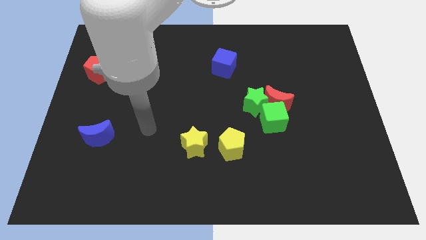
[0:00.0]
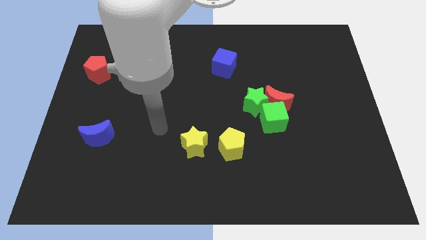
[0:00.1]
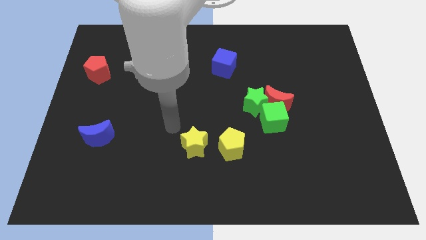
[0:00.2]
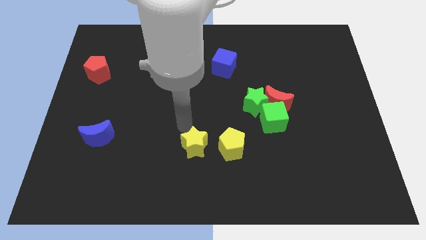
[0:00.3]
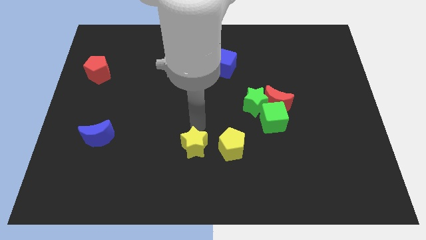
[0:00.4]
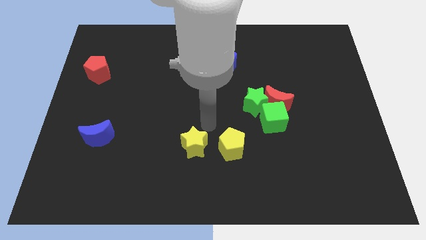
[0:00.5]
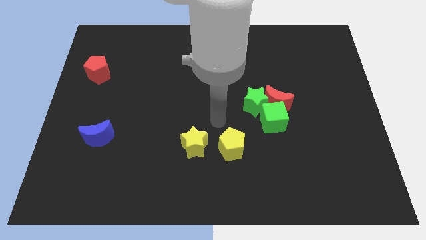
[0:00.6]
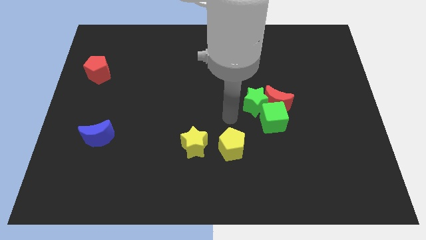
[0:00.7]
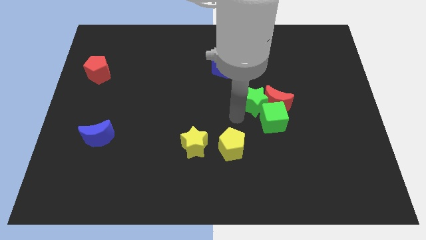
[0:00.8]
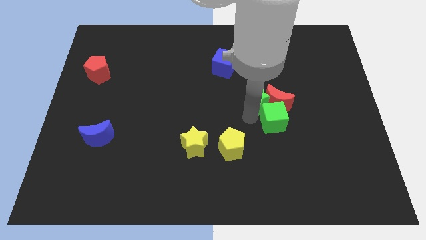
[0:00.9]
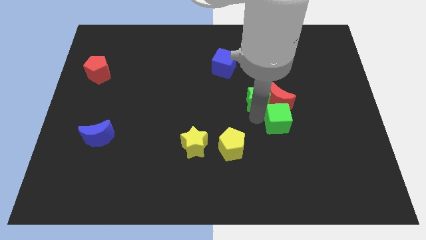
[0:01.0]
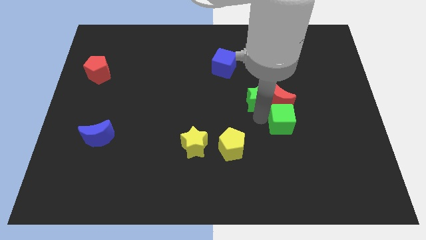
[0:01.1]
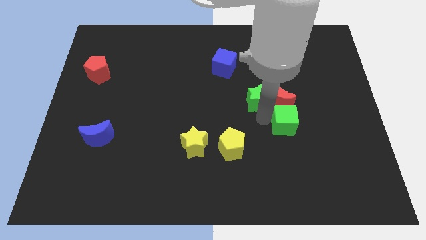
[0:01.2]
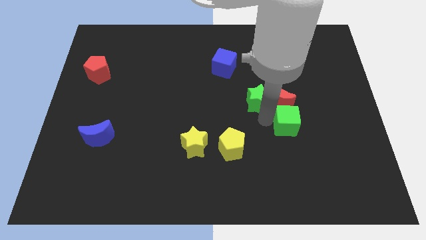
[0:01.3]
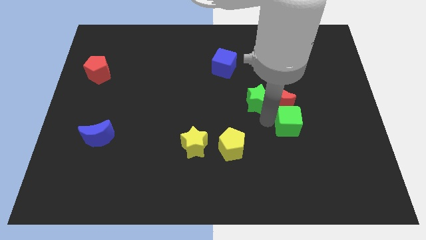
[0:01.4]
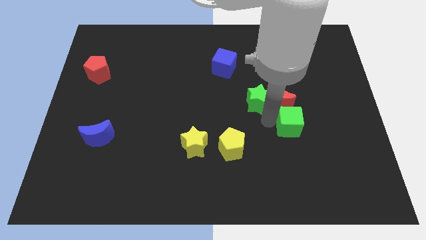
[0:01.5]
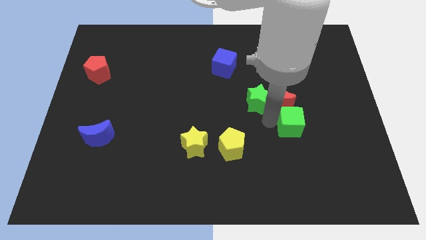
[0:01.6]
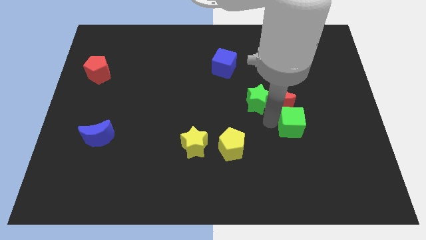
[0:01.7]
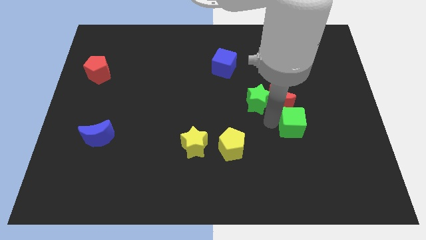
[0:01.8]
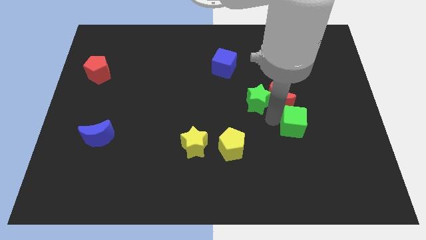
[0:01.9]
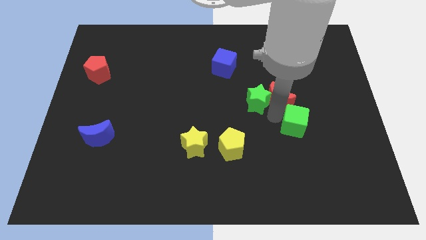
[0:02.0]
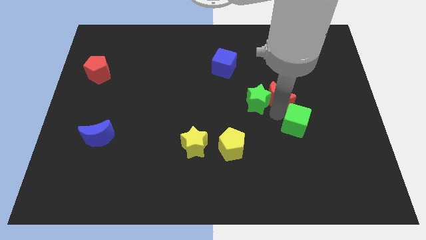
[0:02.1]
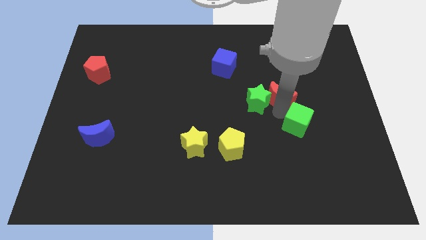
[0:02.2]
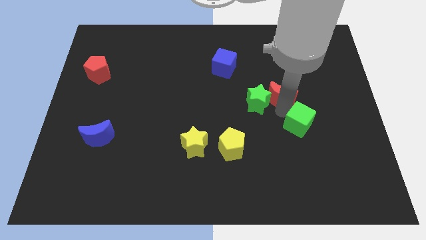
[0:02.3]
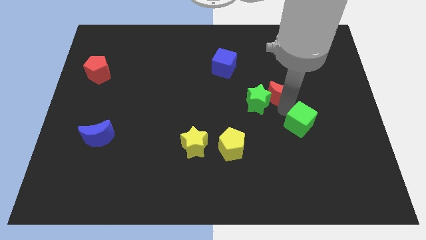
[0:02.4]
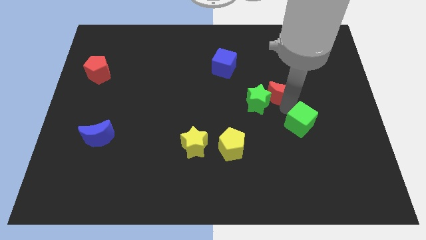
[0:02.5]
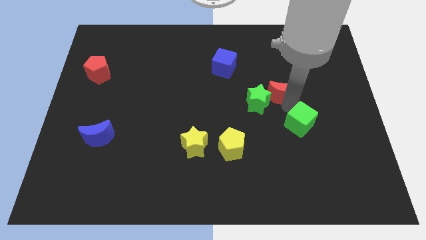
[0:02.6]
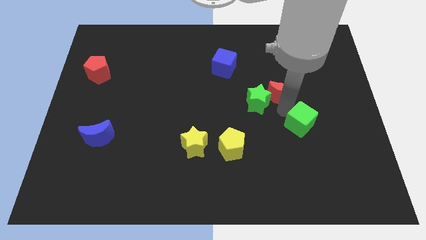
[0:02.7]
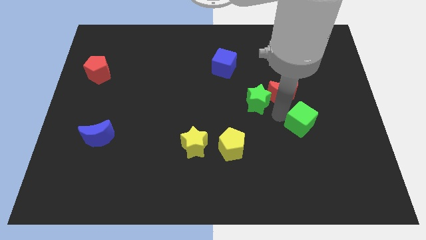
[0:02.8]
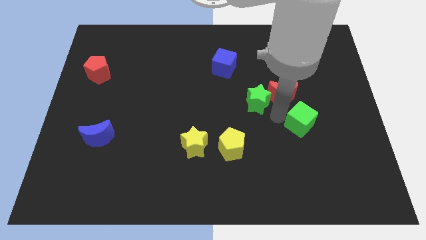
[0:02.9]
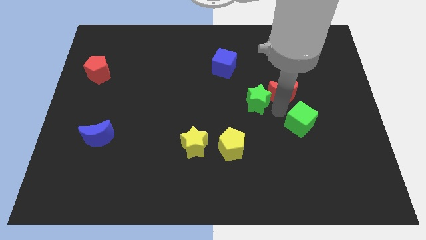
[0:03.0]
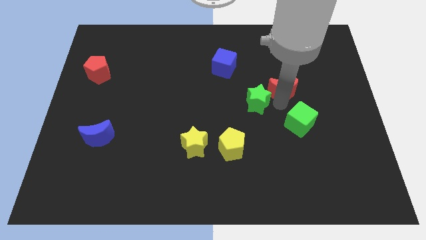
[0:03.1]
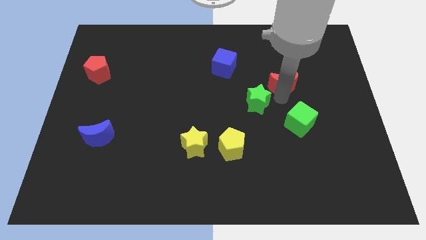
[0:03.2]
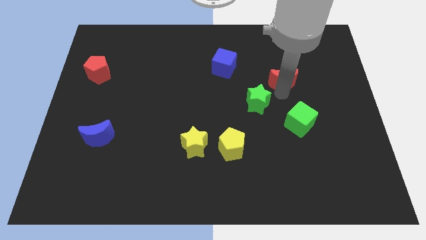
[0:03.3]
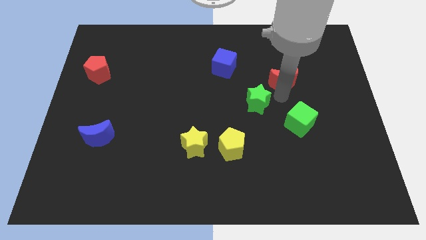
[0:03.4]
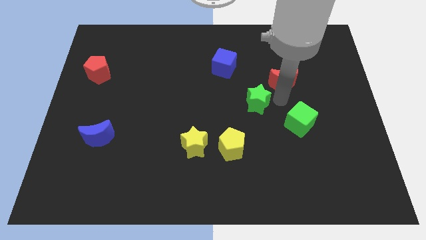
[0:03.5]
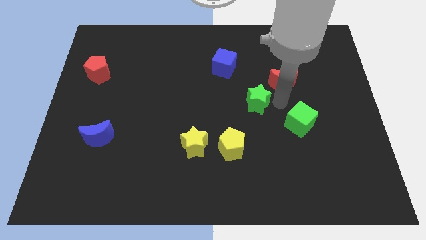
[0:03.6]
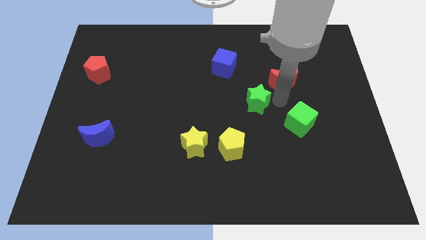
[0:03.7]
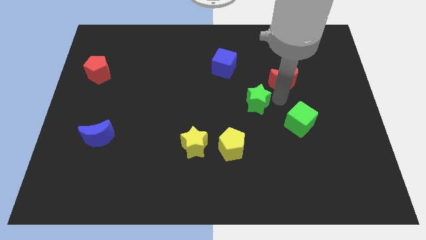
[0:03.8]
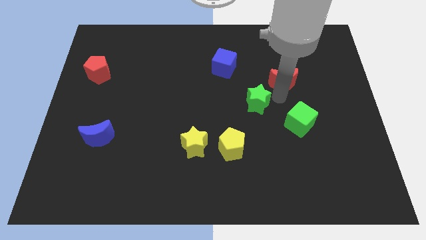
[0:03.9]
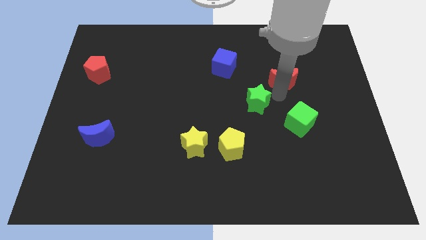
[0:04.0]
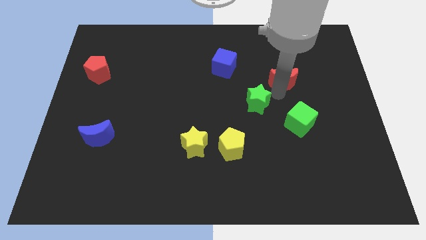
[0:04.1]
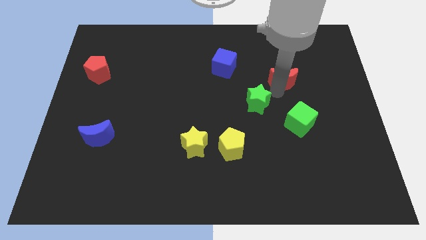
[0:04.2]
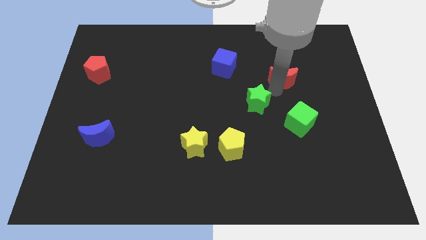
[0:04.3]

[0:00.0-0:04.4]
move the red moon away from the green star and green cube

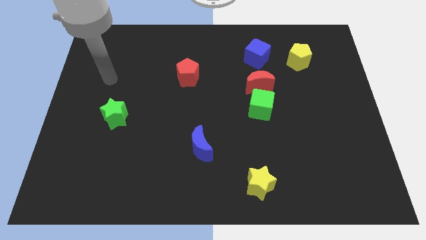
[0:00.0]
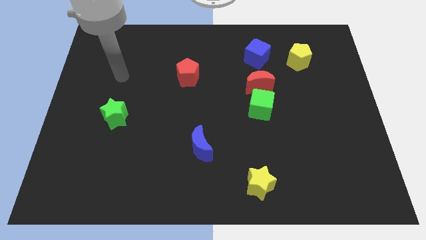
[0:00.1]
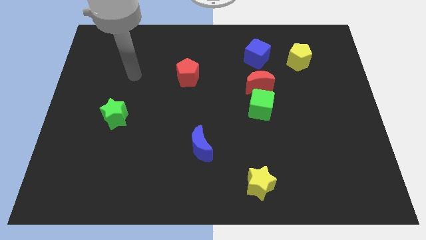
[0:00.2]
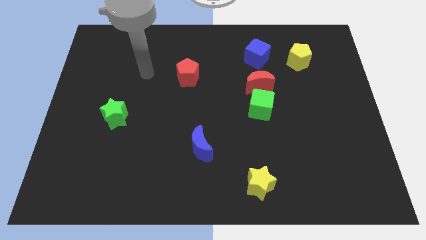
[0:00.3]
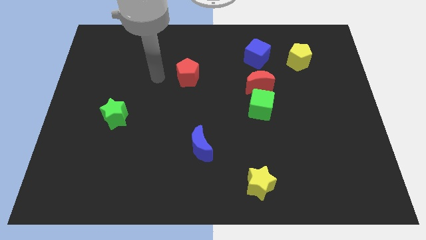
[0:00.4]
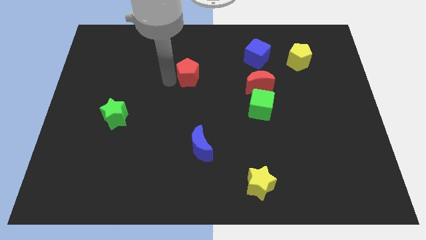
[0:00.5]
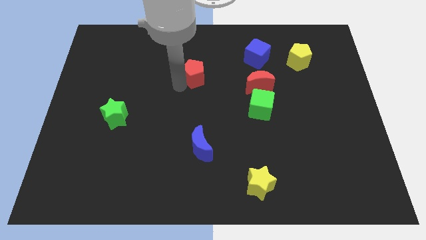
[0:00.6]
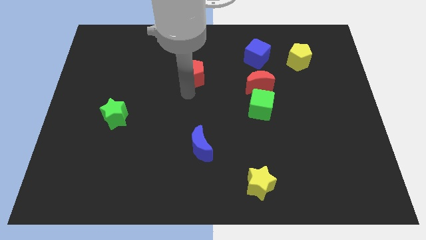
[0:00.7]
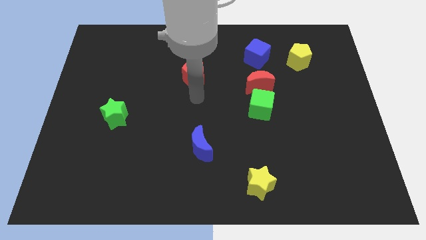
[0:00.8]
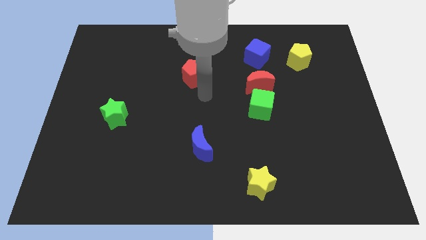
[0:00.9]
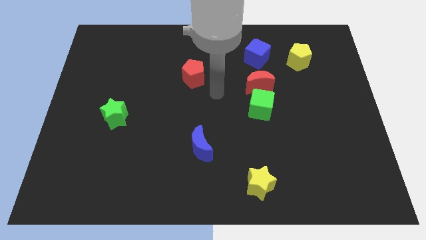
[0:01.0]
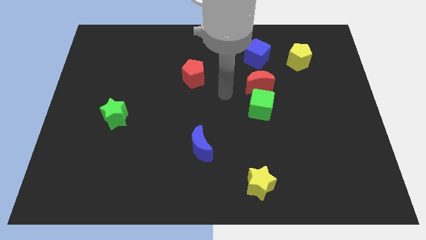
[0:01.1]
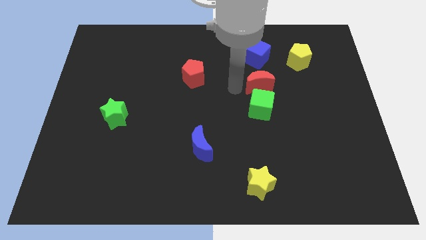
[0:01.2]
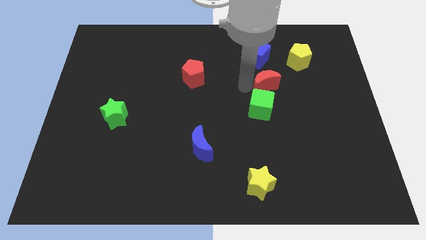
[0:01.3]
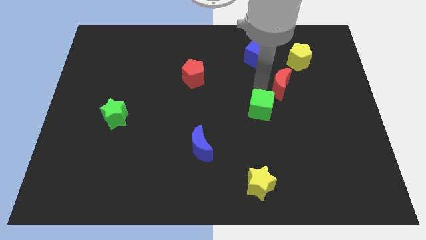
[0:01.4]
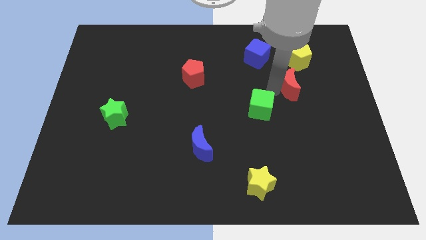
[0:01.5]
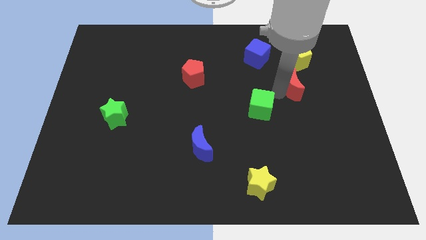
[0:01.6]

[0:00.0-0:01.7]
separate the green cube from the red moon

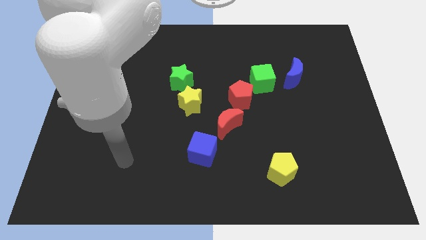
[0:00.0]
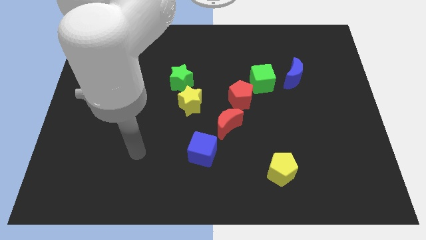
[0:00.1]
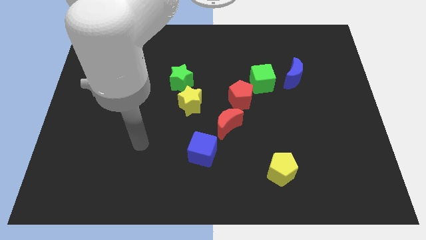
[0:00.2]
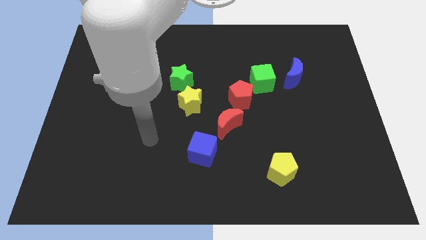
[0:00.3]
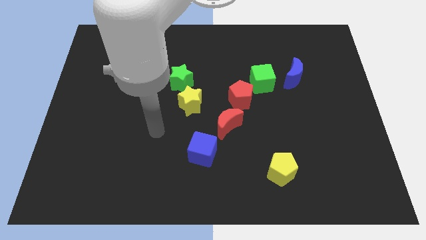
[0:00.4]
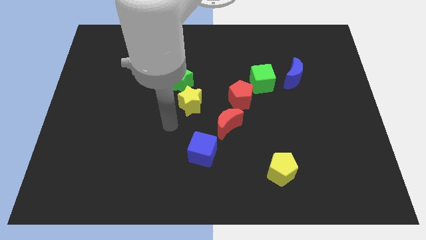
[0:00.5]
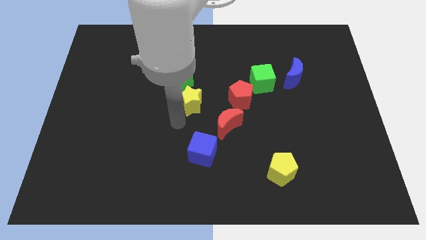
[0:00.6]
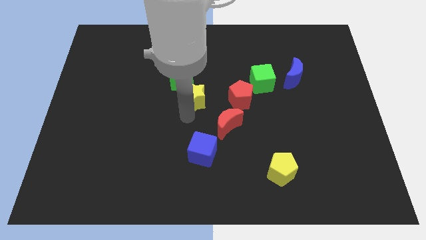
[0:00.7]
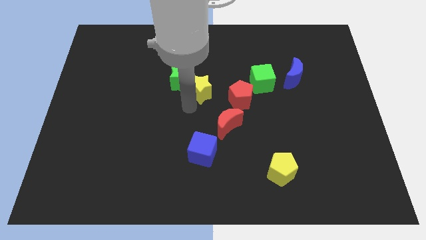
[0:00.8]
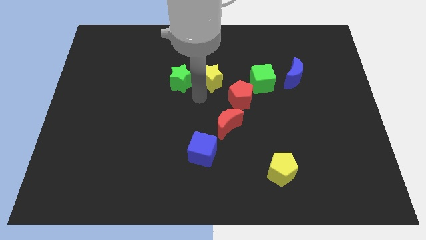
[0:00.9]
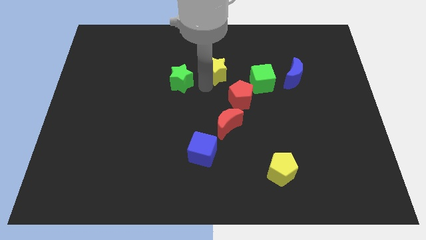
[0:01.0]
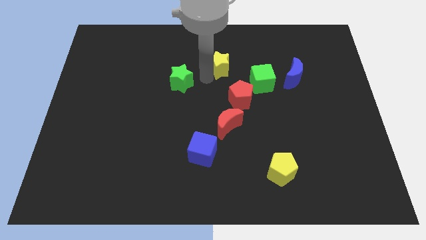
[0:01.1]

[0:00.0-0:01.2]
move the green star away from the yellow star

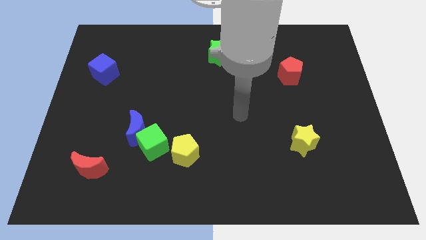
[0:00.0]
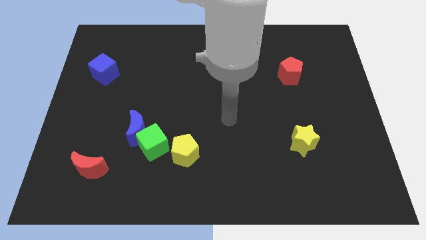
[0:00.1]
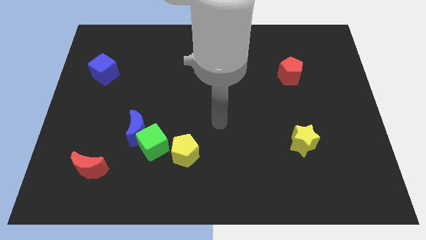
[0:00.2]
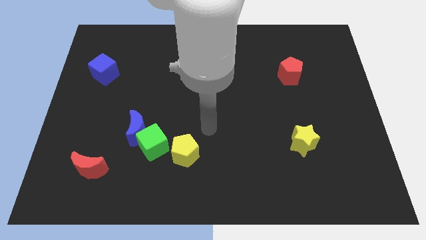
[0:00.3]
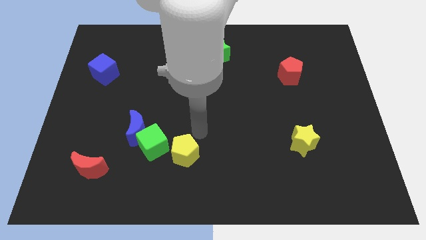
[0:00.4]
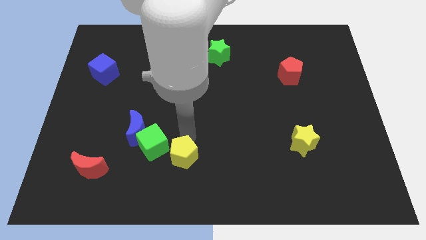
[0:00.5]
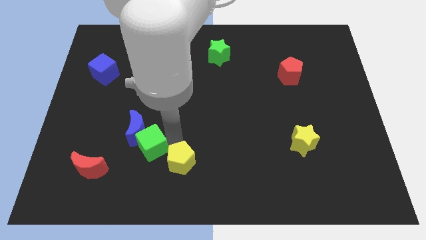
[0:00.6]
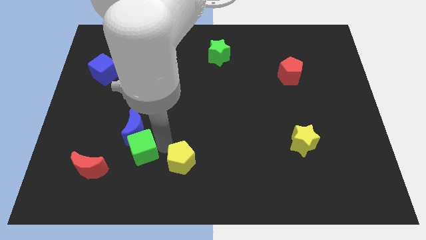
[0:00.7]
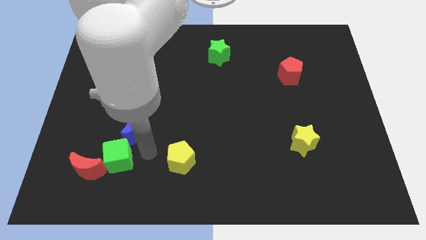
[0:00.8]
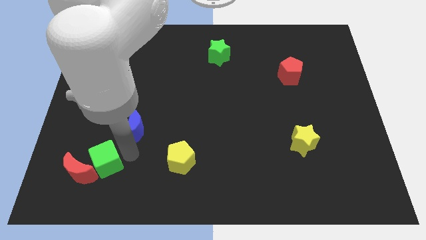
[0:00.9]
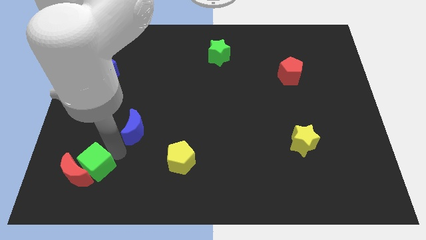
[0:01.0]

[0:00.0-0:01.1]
separate the blue moon from the green cube

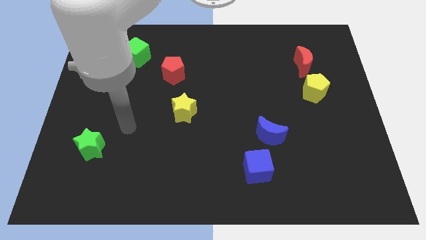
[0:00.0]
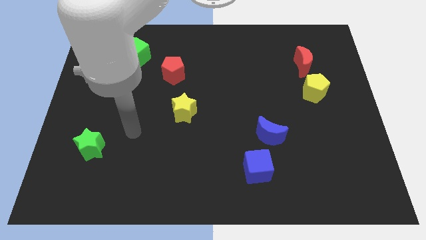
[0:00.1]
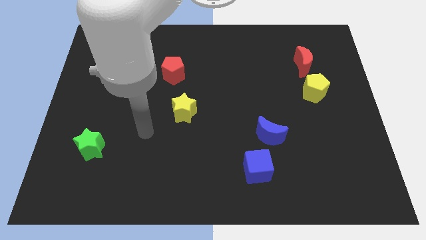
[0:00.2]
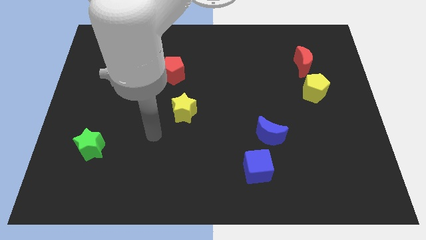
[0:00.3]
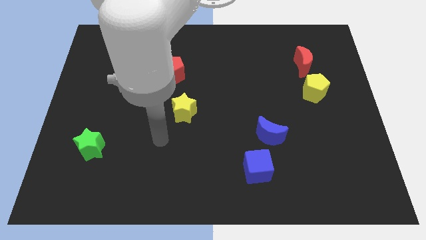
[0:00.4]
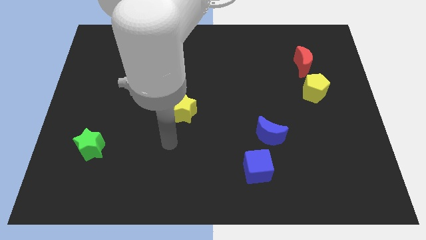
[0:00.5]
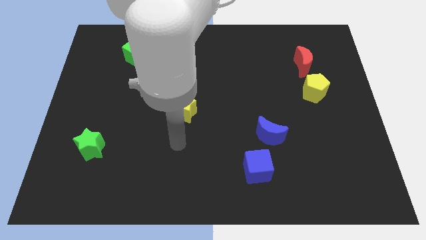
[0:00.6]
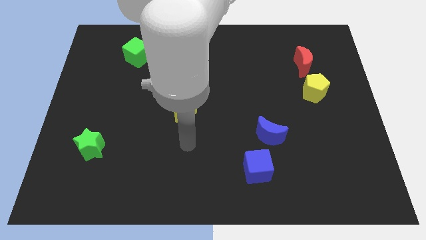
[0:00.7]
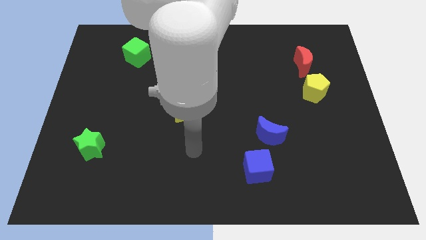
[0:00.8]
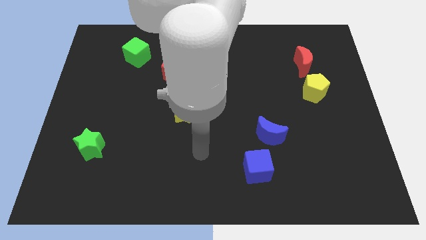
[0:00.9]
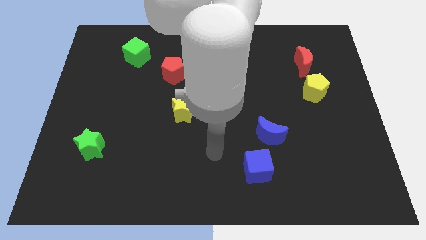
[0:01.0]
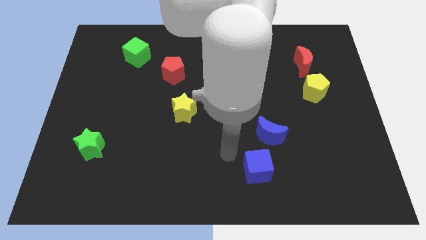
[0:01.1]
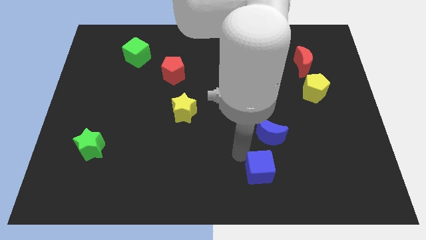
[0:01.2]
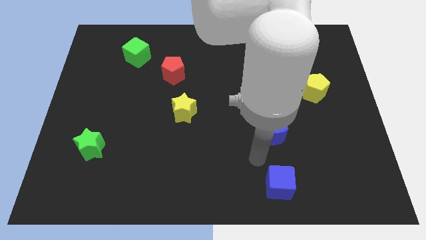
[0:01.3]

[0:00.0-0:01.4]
move the blue moon away from the blue cube
